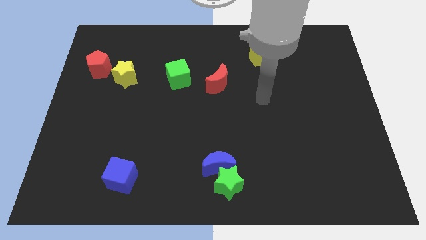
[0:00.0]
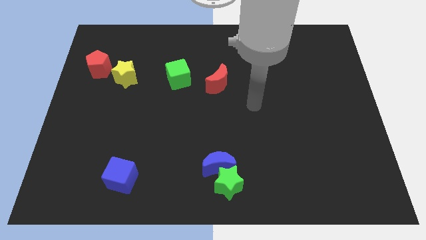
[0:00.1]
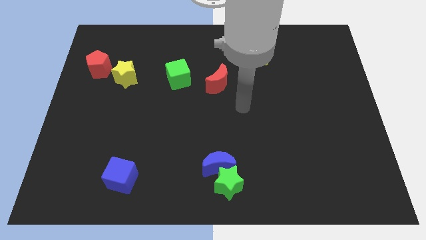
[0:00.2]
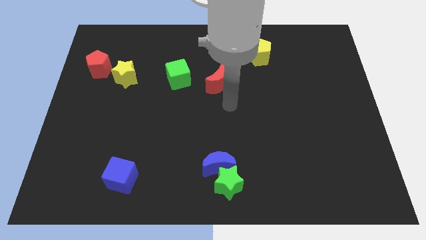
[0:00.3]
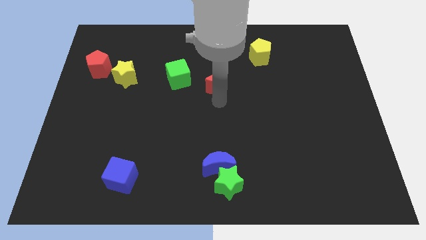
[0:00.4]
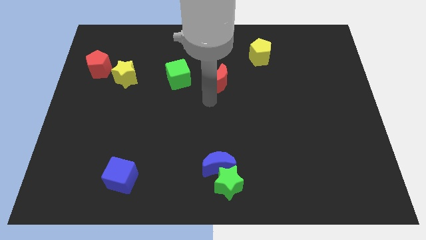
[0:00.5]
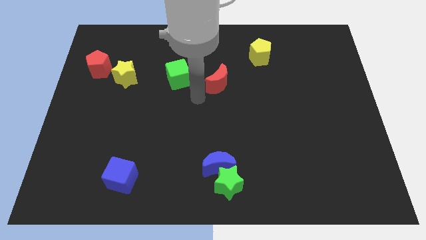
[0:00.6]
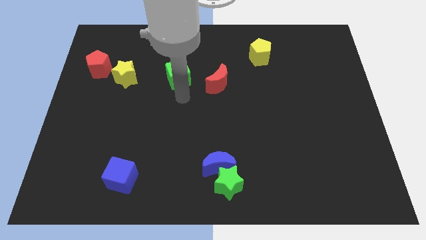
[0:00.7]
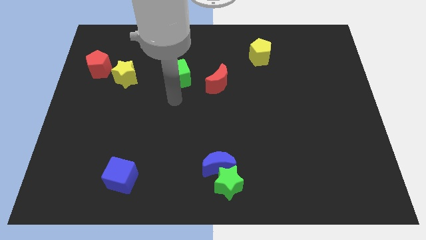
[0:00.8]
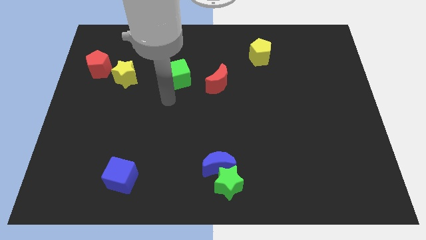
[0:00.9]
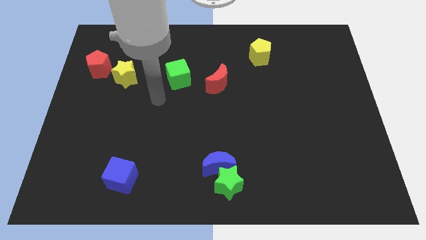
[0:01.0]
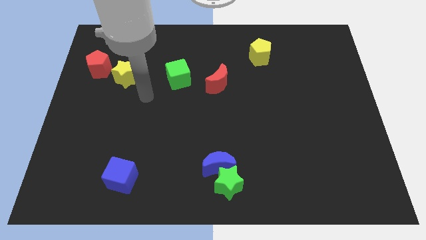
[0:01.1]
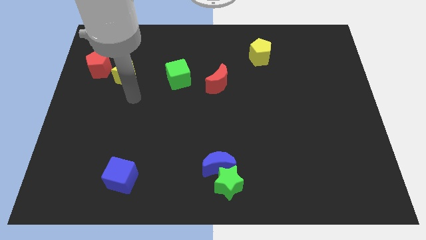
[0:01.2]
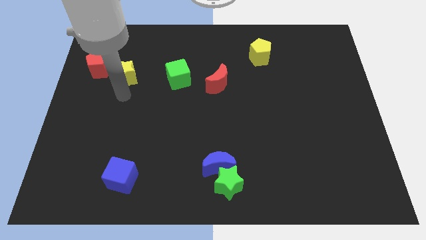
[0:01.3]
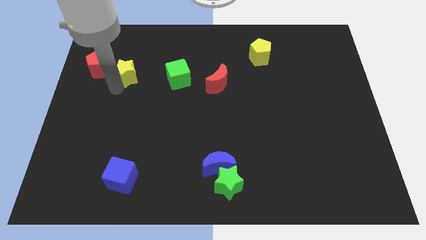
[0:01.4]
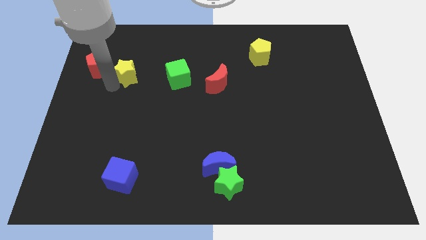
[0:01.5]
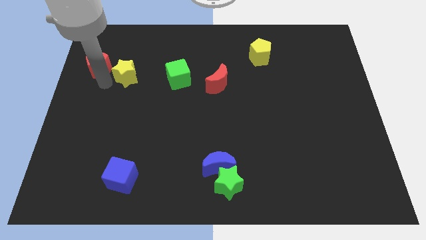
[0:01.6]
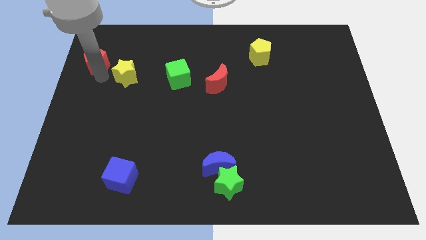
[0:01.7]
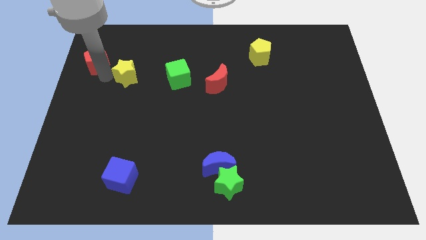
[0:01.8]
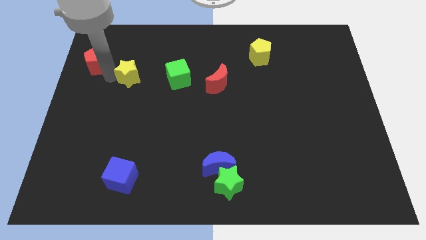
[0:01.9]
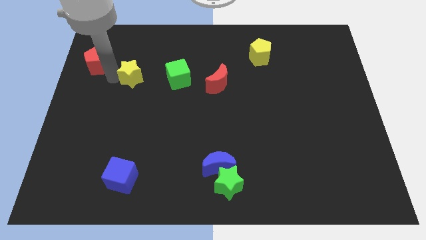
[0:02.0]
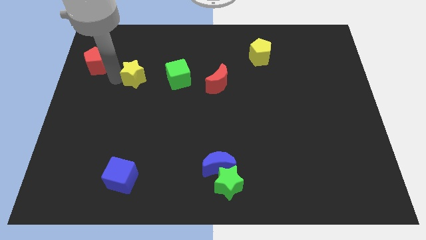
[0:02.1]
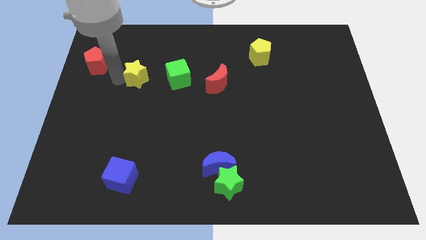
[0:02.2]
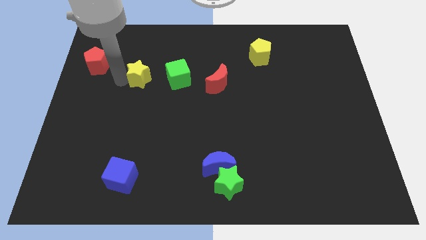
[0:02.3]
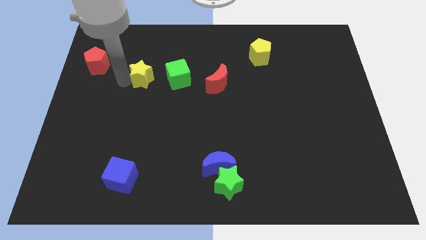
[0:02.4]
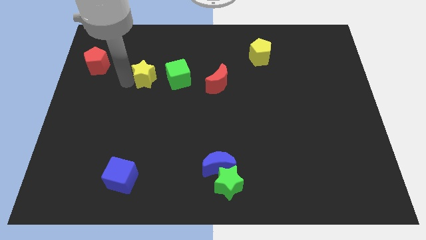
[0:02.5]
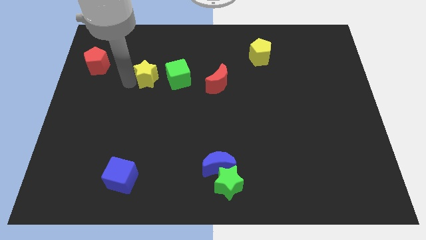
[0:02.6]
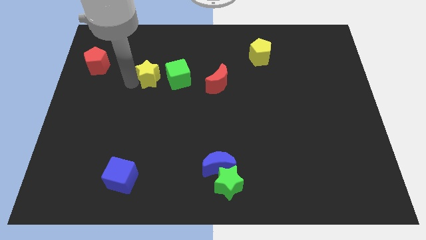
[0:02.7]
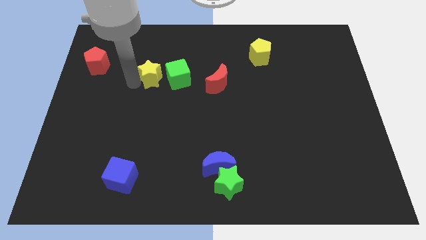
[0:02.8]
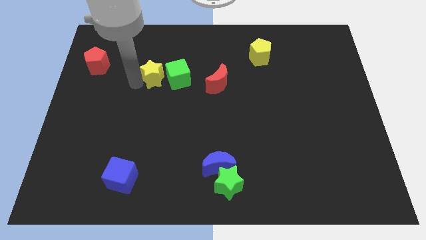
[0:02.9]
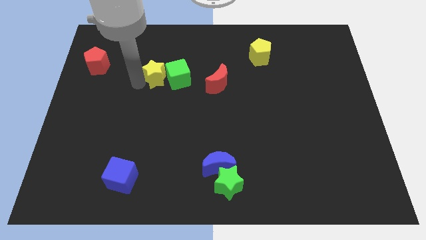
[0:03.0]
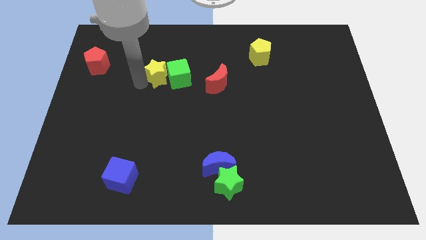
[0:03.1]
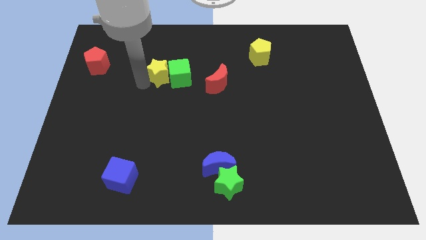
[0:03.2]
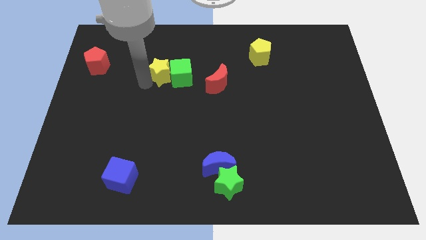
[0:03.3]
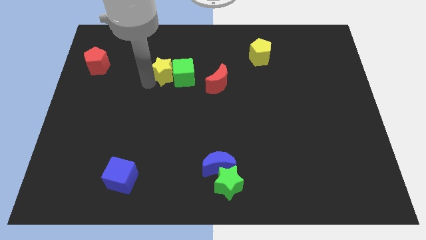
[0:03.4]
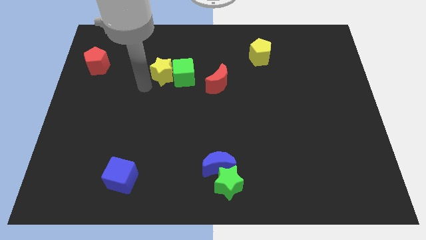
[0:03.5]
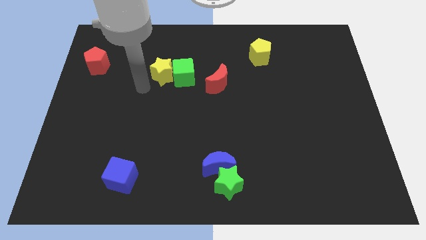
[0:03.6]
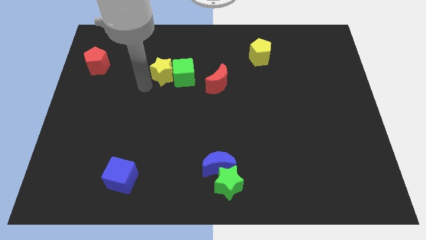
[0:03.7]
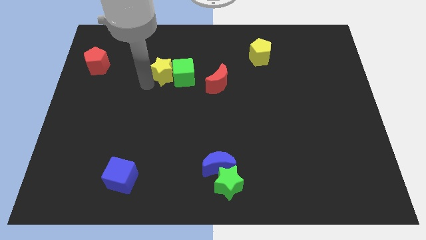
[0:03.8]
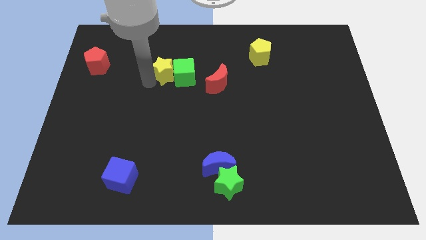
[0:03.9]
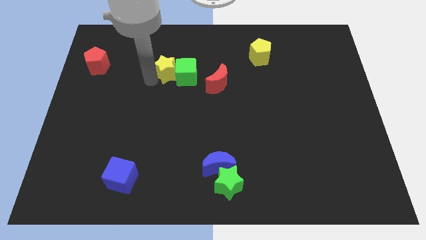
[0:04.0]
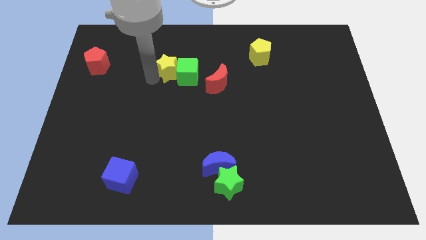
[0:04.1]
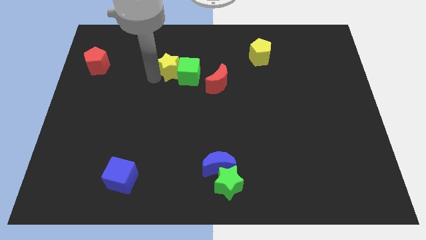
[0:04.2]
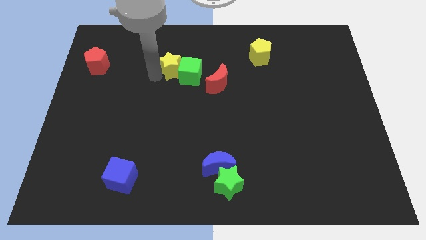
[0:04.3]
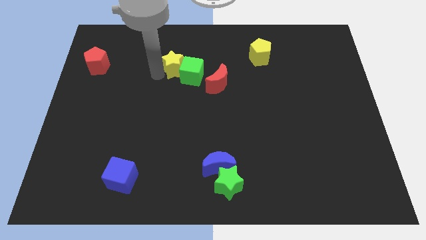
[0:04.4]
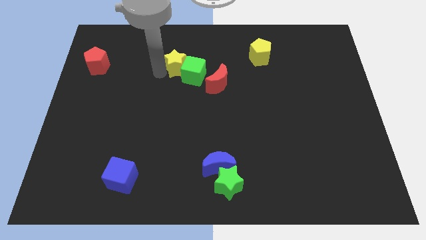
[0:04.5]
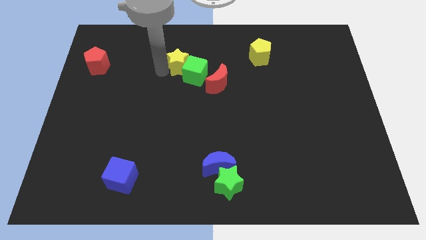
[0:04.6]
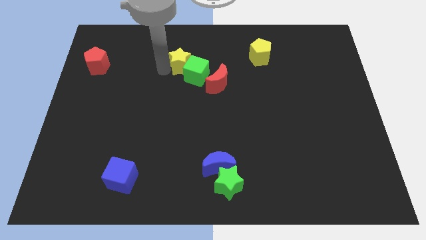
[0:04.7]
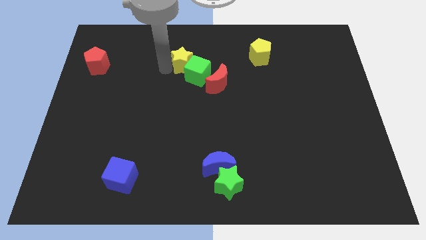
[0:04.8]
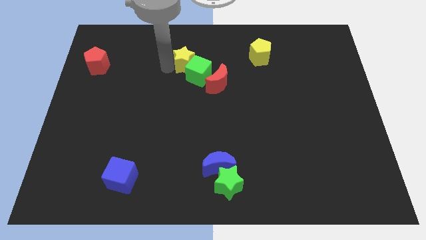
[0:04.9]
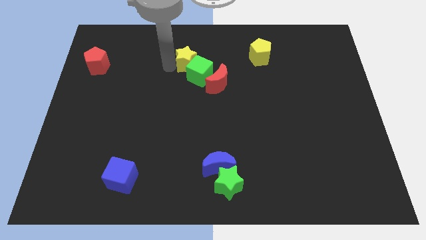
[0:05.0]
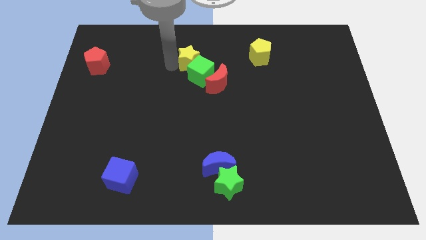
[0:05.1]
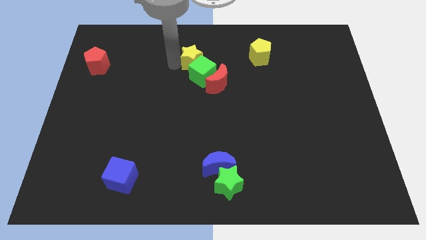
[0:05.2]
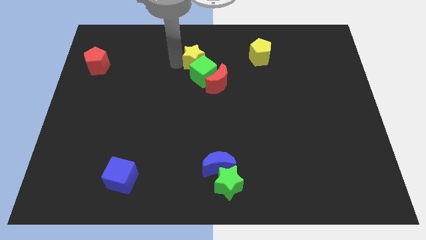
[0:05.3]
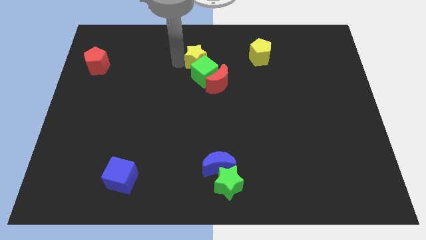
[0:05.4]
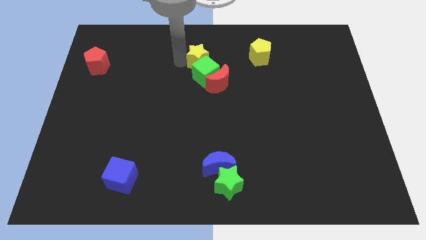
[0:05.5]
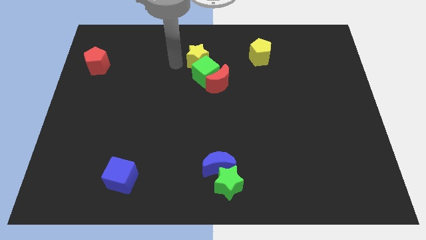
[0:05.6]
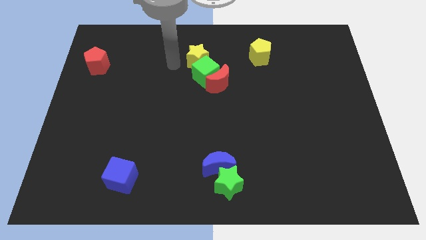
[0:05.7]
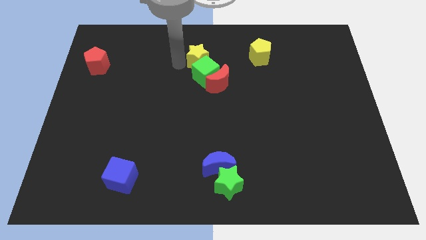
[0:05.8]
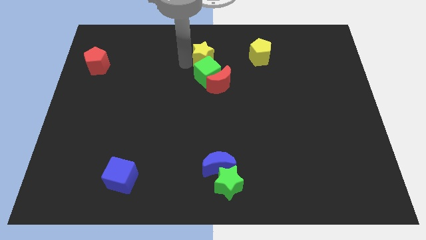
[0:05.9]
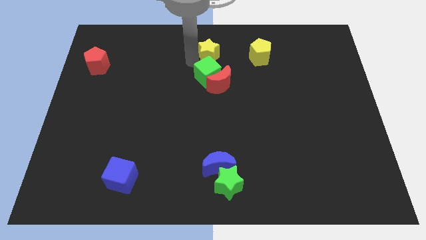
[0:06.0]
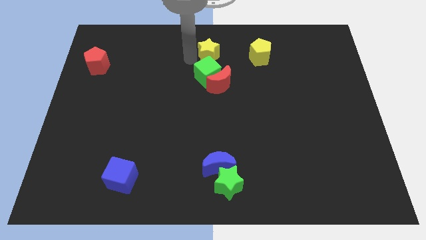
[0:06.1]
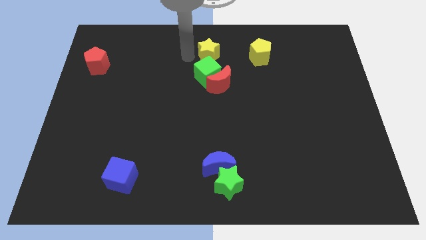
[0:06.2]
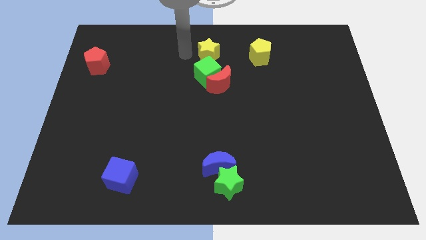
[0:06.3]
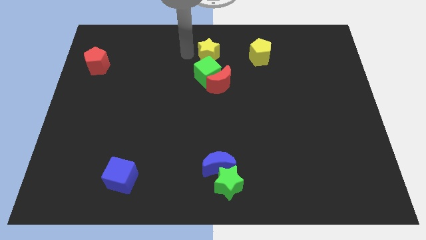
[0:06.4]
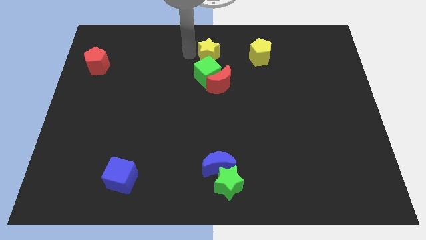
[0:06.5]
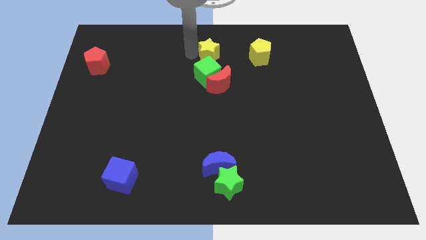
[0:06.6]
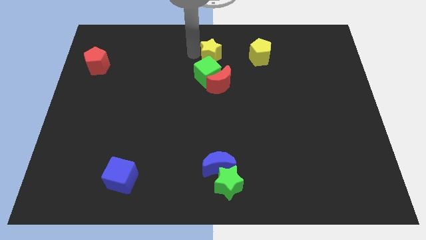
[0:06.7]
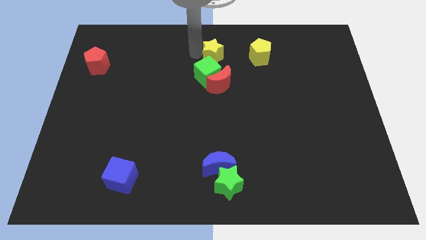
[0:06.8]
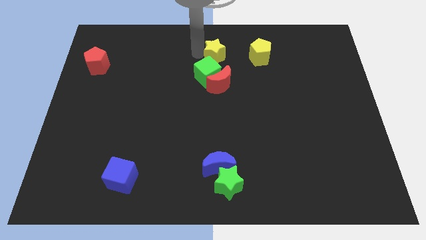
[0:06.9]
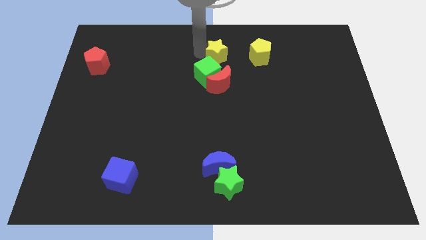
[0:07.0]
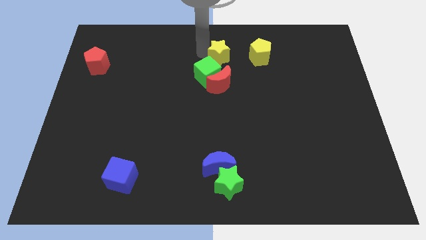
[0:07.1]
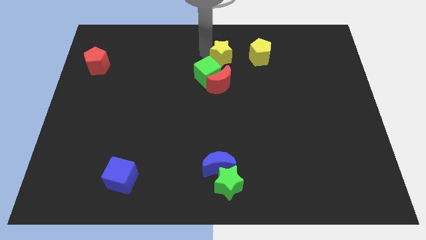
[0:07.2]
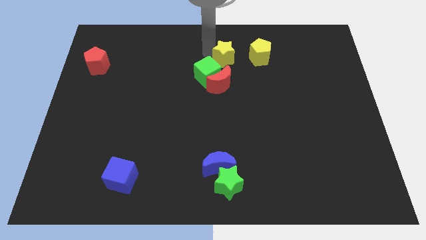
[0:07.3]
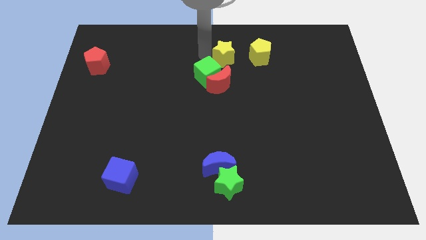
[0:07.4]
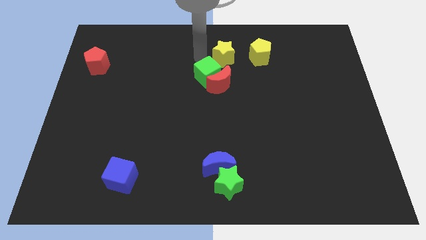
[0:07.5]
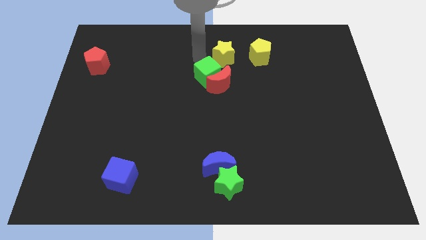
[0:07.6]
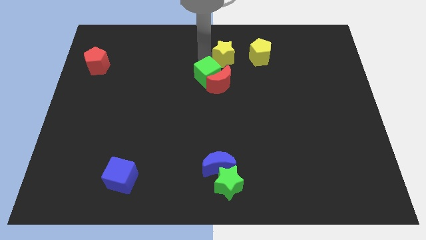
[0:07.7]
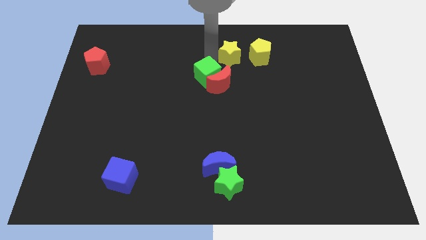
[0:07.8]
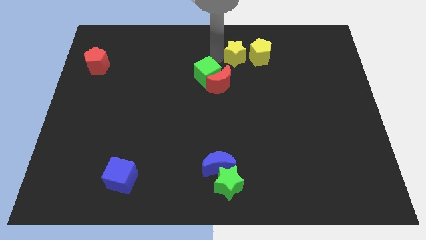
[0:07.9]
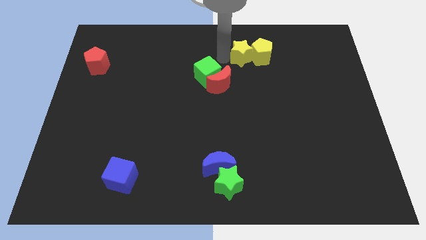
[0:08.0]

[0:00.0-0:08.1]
slide the yellow star towards the yellow pentagon
